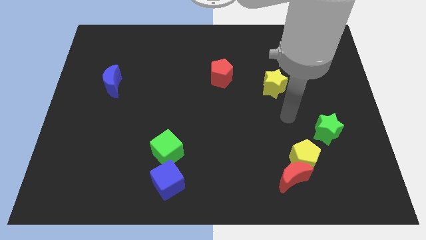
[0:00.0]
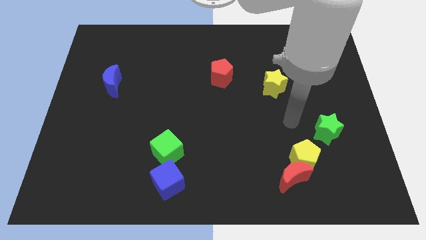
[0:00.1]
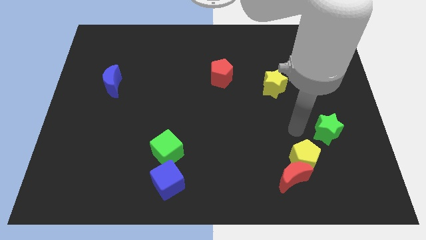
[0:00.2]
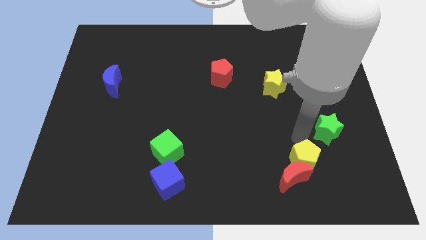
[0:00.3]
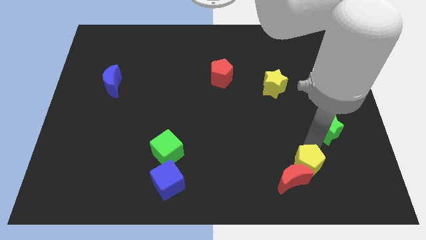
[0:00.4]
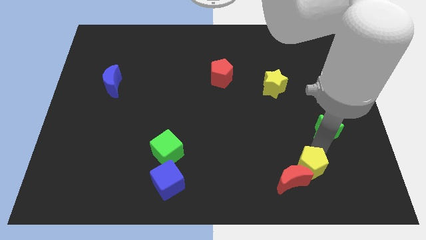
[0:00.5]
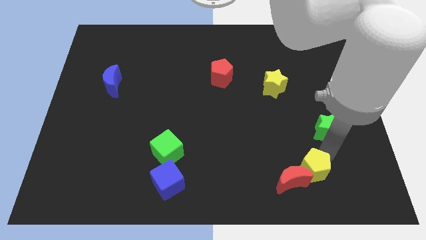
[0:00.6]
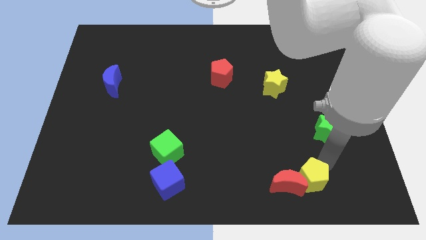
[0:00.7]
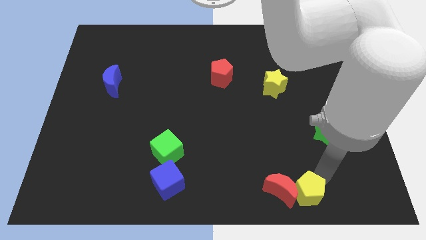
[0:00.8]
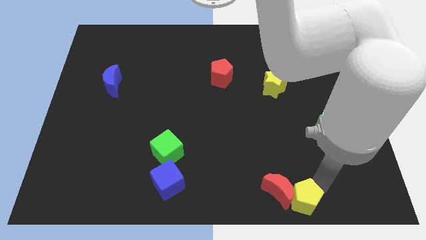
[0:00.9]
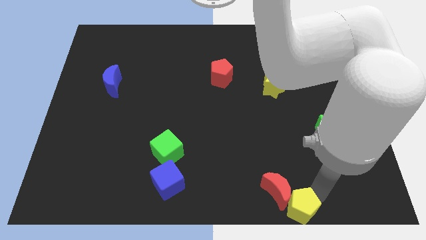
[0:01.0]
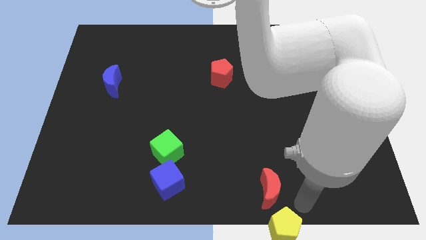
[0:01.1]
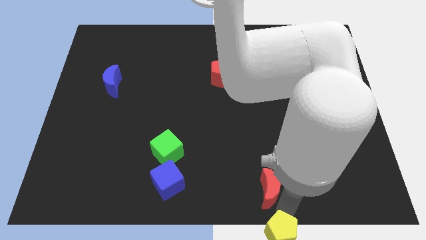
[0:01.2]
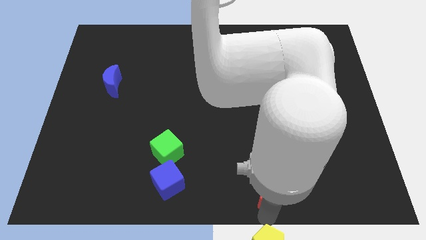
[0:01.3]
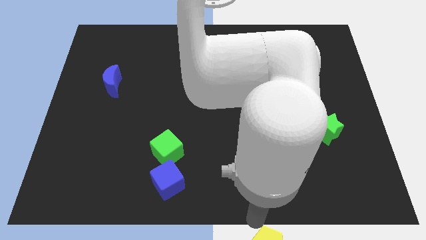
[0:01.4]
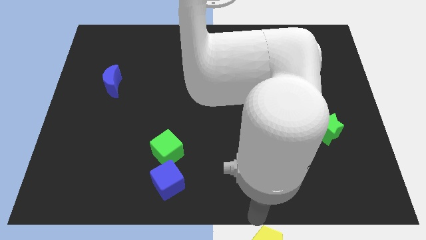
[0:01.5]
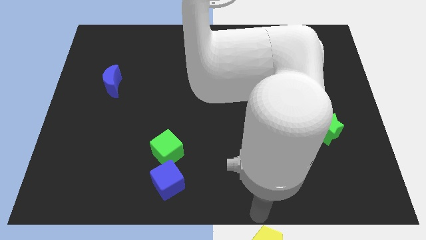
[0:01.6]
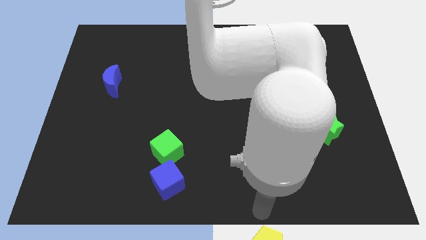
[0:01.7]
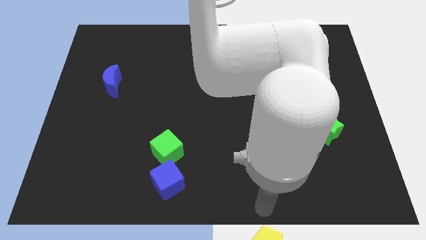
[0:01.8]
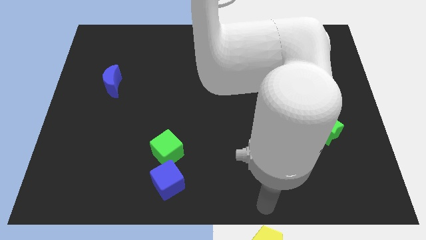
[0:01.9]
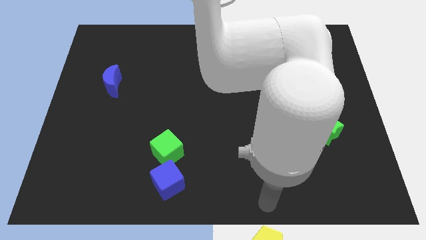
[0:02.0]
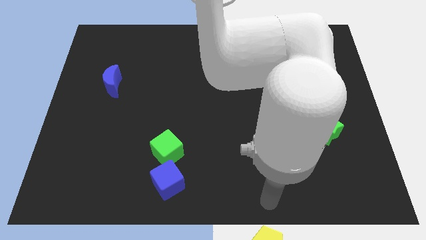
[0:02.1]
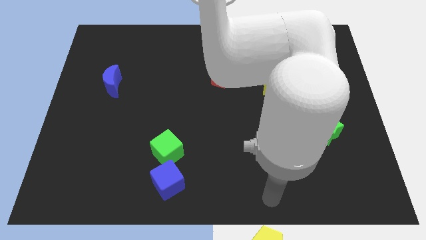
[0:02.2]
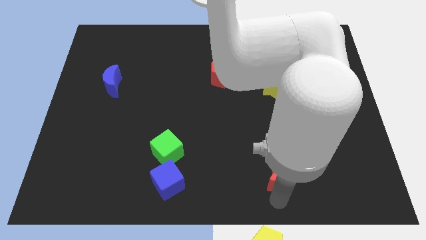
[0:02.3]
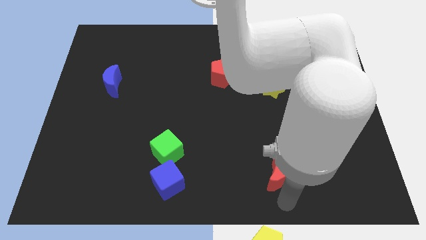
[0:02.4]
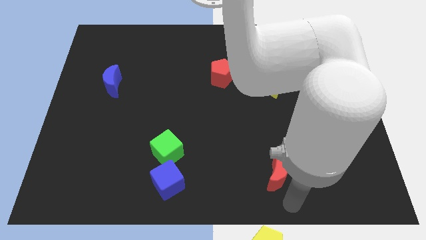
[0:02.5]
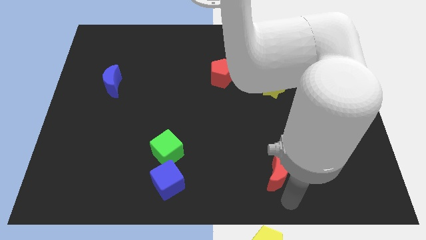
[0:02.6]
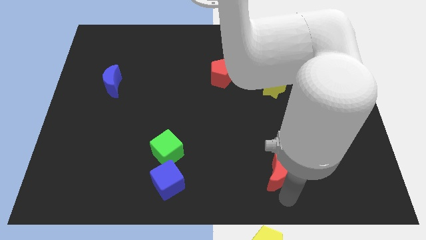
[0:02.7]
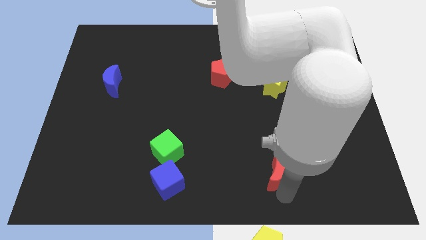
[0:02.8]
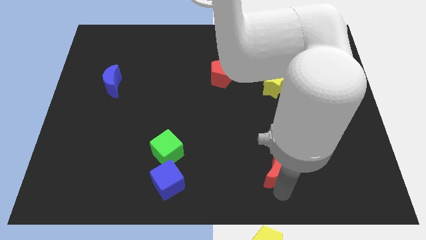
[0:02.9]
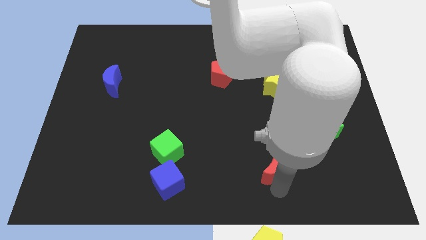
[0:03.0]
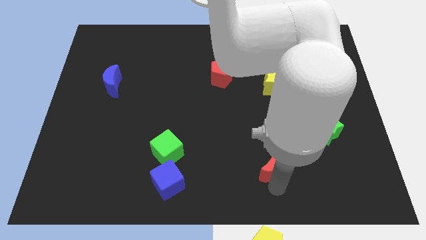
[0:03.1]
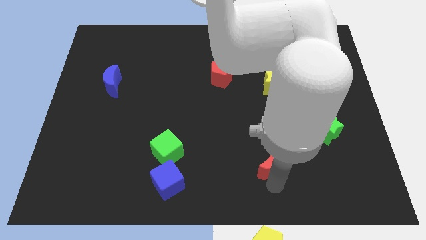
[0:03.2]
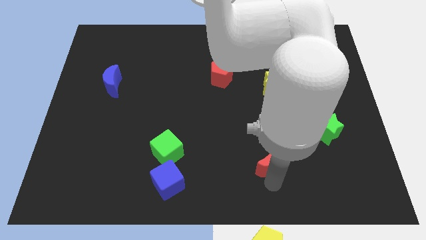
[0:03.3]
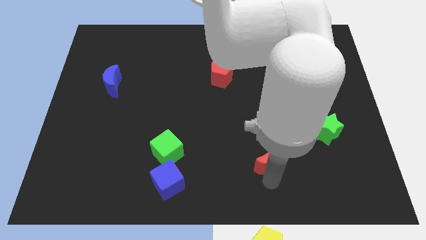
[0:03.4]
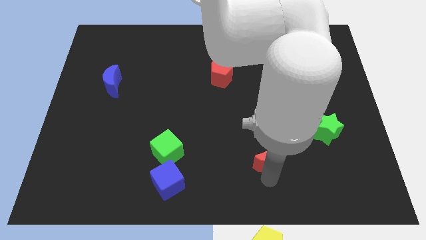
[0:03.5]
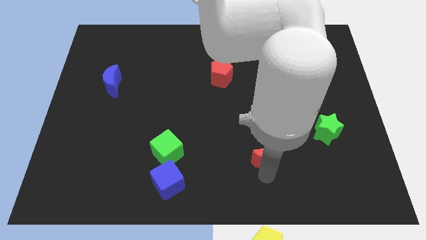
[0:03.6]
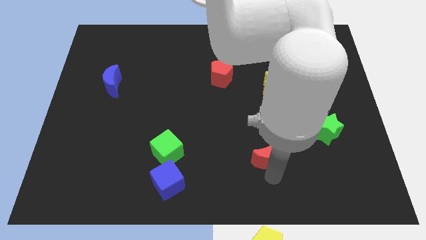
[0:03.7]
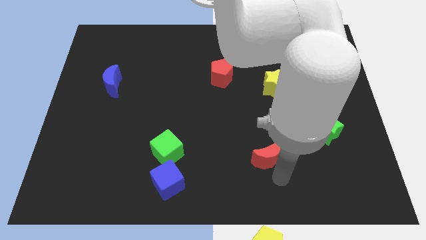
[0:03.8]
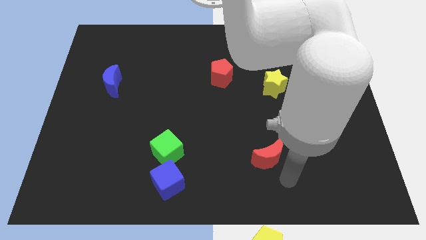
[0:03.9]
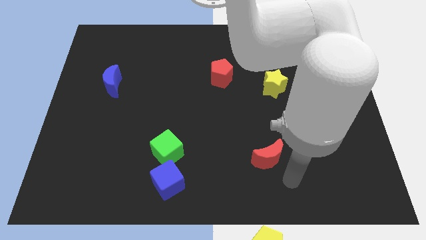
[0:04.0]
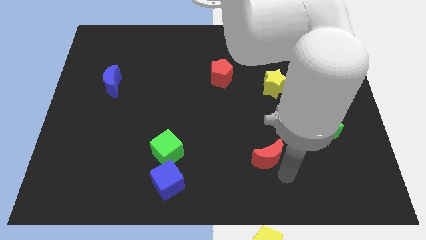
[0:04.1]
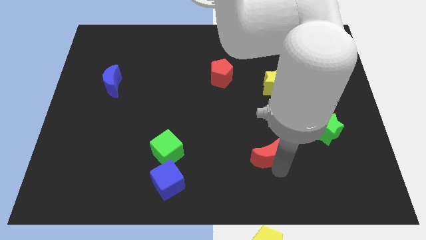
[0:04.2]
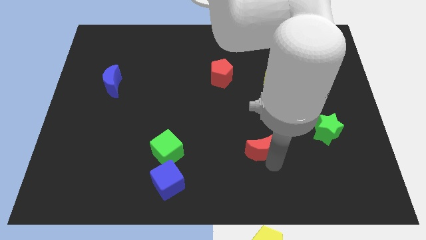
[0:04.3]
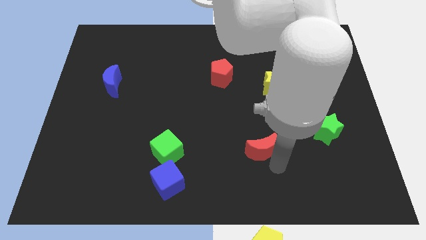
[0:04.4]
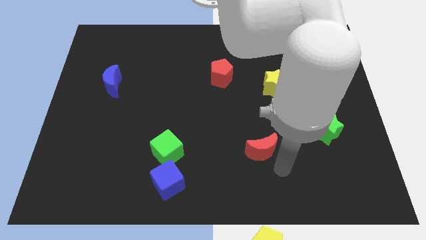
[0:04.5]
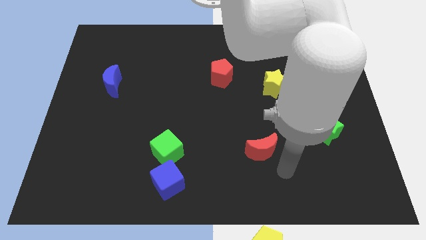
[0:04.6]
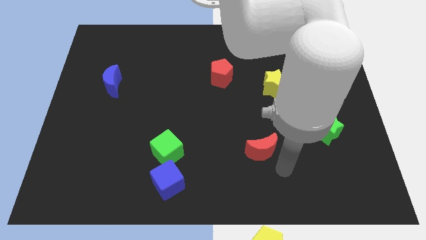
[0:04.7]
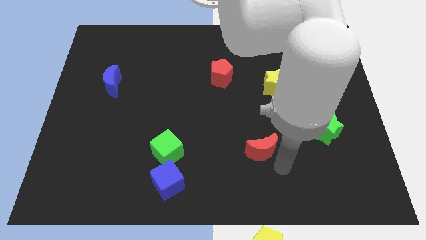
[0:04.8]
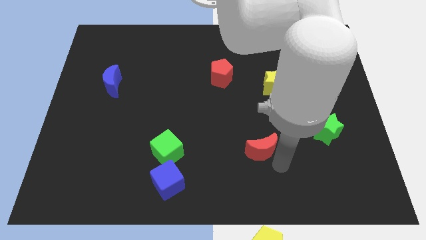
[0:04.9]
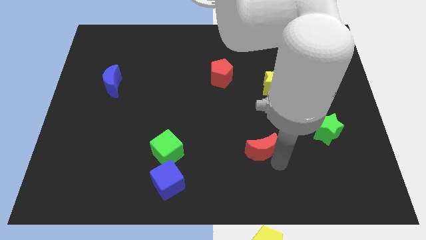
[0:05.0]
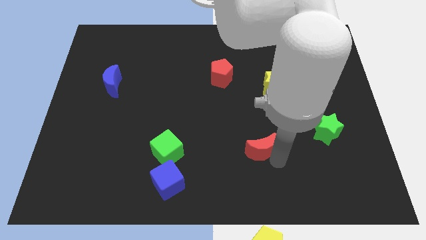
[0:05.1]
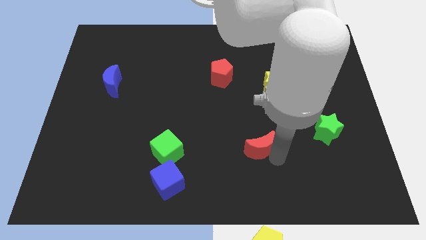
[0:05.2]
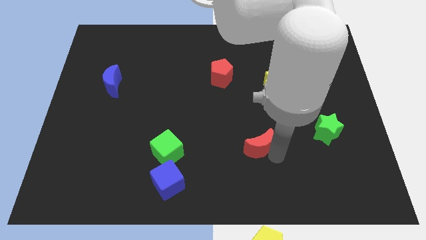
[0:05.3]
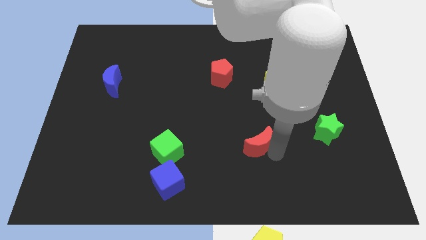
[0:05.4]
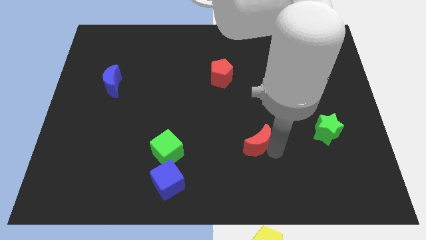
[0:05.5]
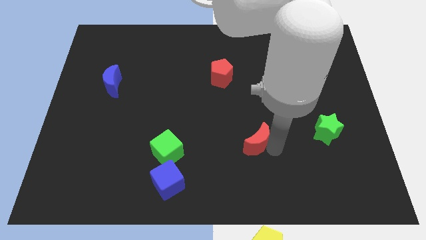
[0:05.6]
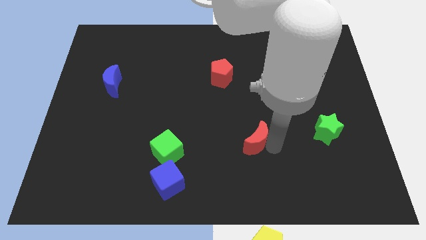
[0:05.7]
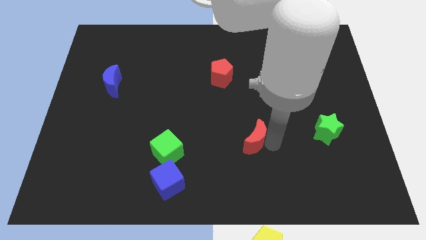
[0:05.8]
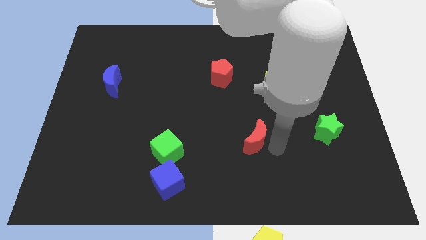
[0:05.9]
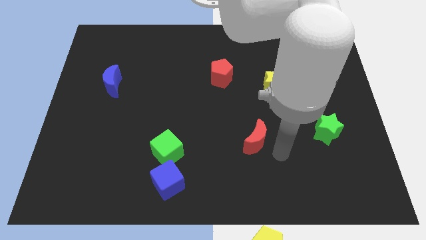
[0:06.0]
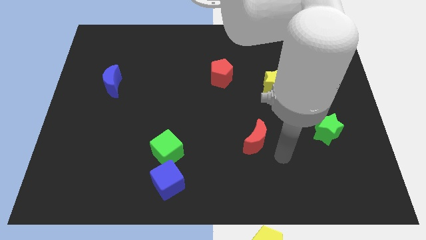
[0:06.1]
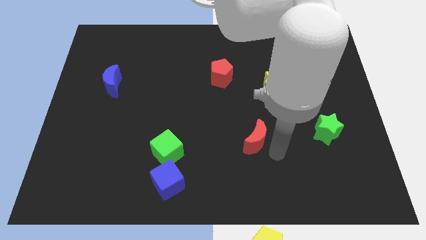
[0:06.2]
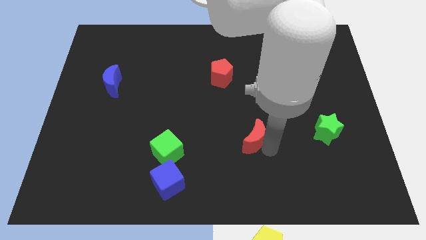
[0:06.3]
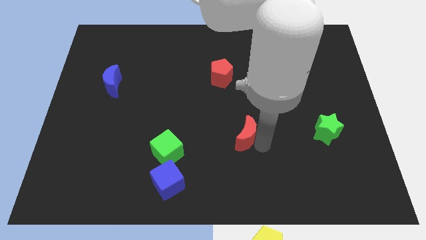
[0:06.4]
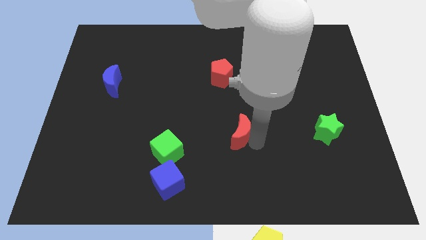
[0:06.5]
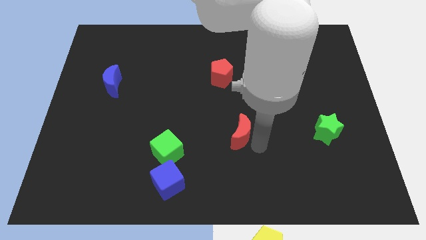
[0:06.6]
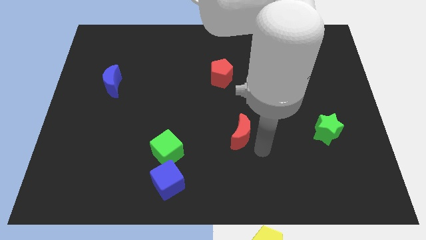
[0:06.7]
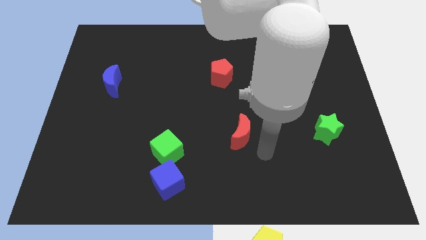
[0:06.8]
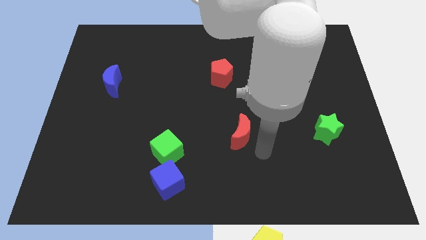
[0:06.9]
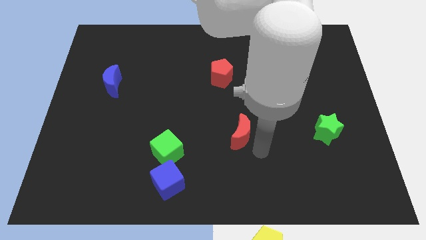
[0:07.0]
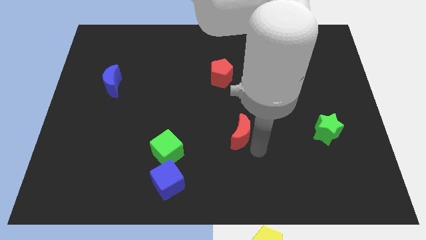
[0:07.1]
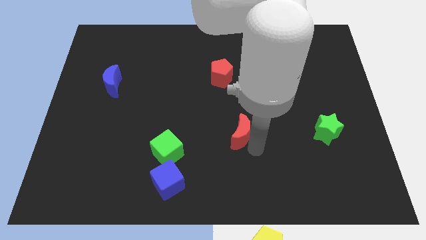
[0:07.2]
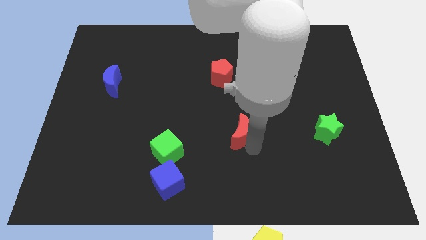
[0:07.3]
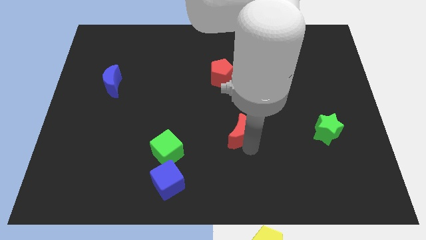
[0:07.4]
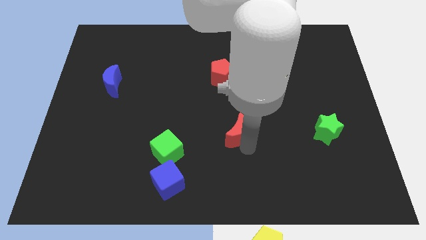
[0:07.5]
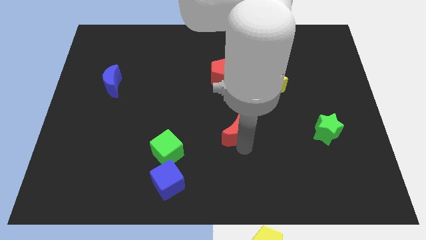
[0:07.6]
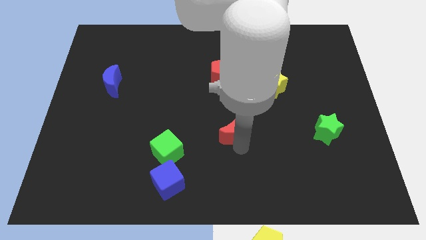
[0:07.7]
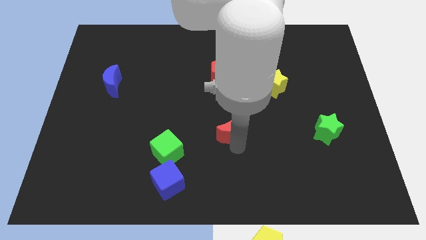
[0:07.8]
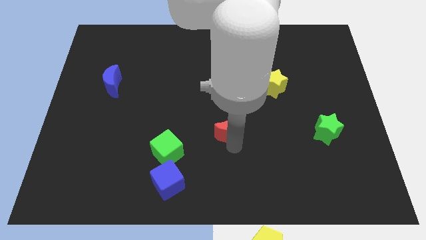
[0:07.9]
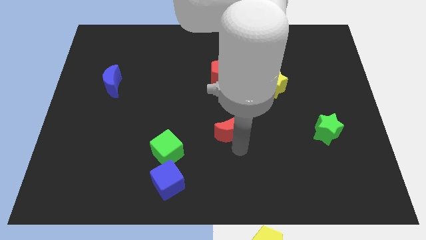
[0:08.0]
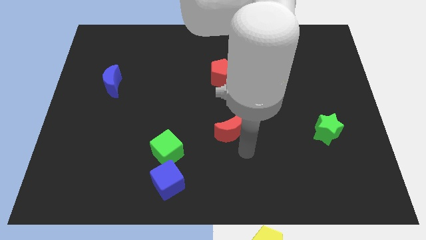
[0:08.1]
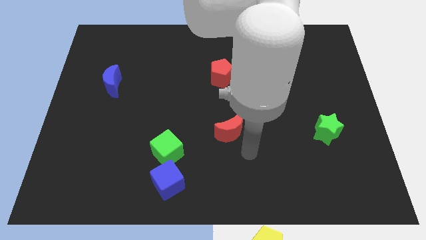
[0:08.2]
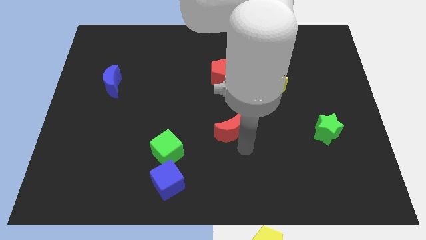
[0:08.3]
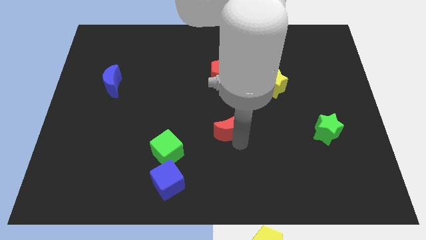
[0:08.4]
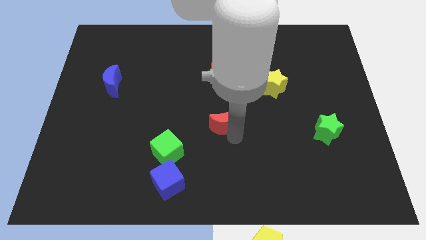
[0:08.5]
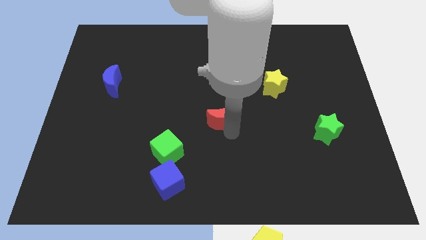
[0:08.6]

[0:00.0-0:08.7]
push the red moon upwards and to the left diagonally
